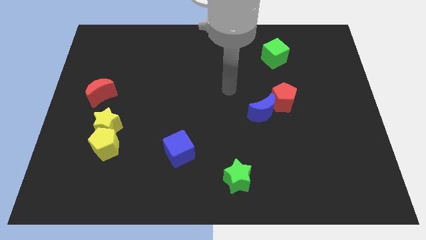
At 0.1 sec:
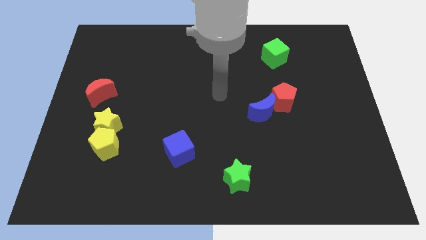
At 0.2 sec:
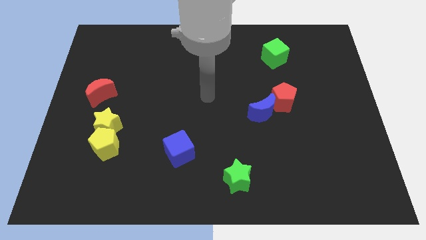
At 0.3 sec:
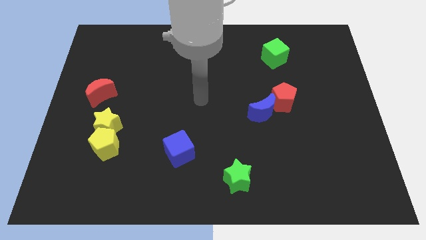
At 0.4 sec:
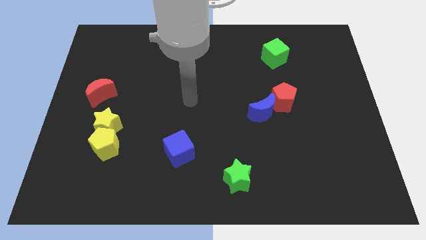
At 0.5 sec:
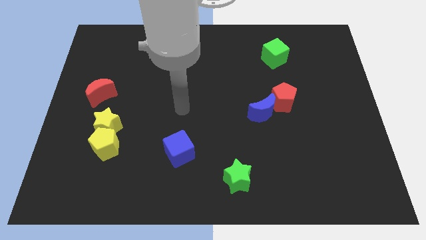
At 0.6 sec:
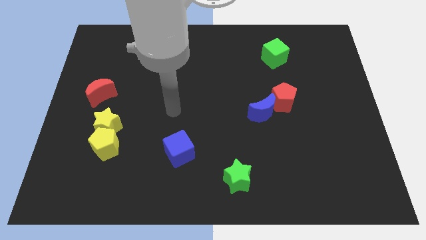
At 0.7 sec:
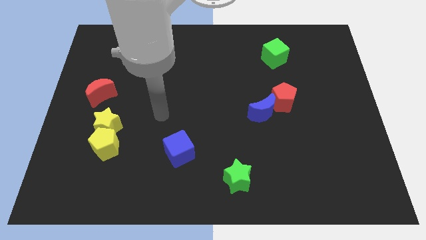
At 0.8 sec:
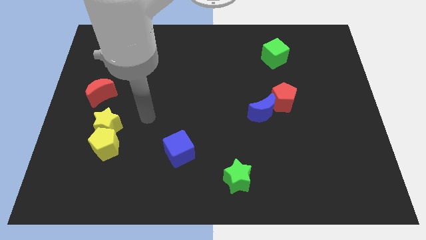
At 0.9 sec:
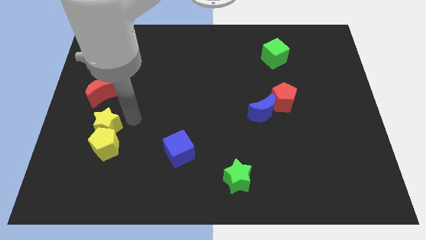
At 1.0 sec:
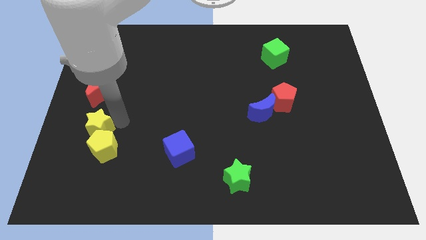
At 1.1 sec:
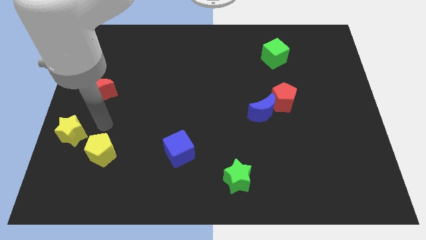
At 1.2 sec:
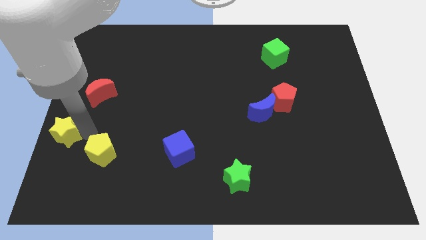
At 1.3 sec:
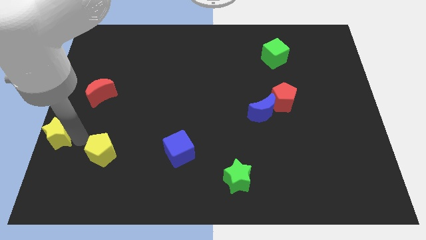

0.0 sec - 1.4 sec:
move the yellow pentagon away from the yellow star

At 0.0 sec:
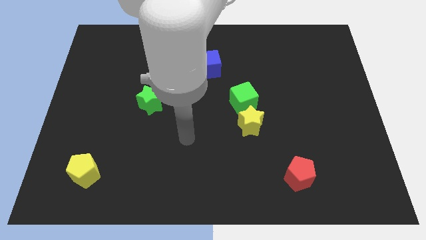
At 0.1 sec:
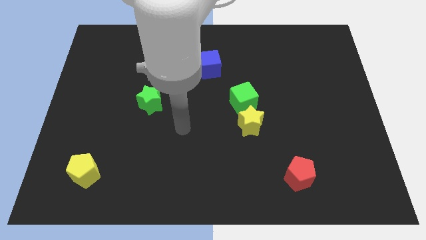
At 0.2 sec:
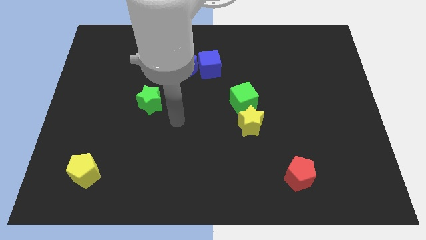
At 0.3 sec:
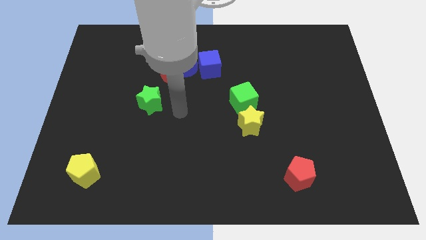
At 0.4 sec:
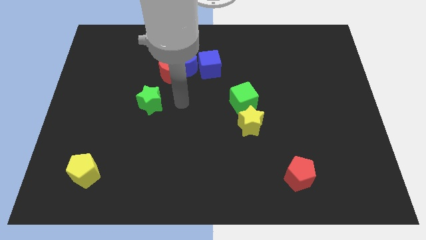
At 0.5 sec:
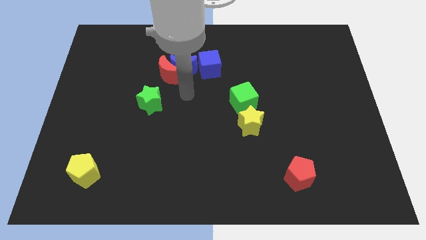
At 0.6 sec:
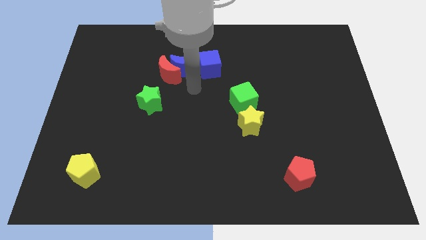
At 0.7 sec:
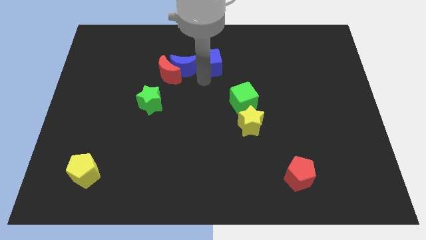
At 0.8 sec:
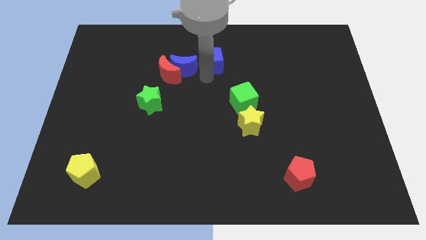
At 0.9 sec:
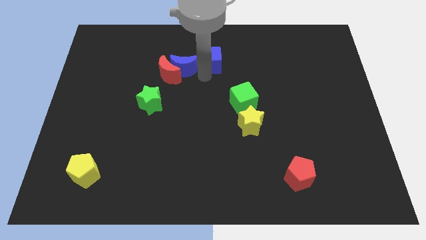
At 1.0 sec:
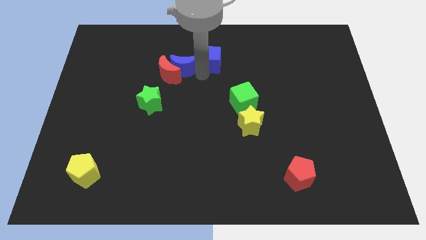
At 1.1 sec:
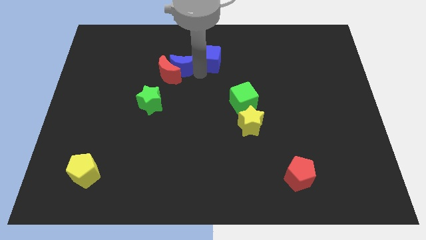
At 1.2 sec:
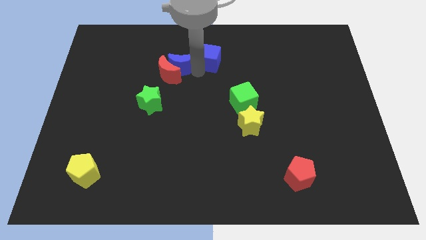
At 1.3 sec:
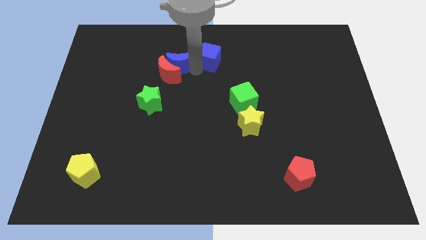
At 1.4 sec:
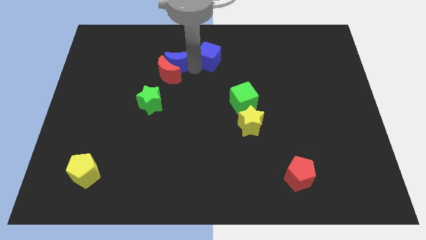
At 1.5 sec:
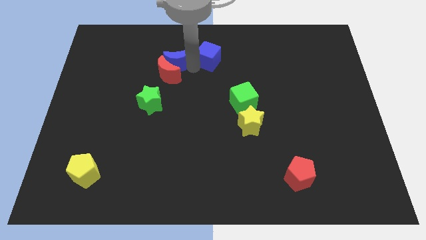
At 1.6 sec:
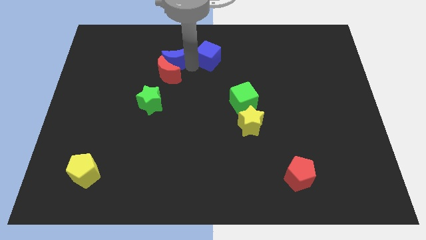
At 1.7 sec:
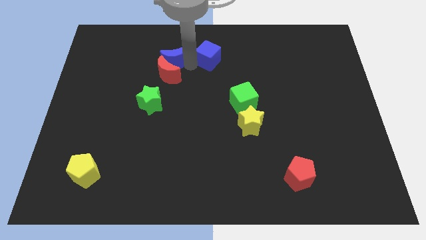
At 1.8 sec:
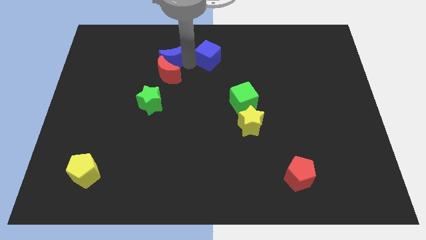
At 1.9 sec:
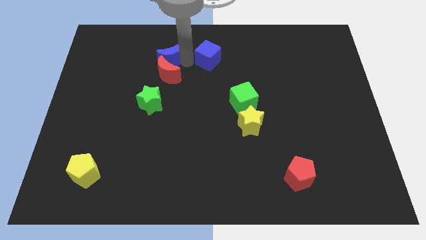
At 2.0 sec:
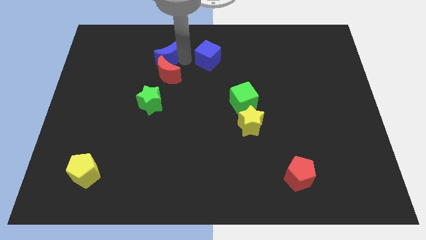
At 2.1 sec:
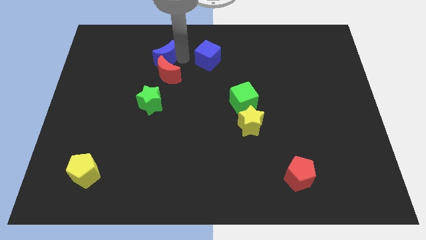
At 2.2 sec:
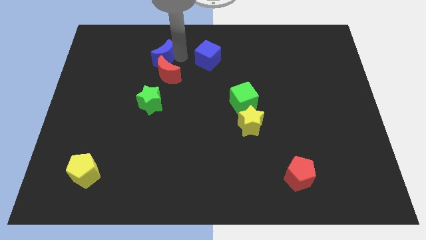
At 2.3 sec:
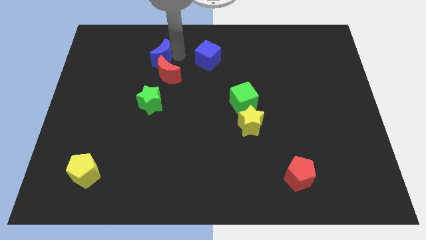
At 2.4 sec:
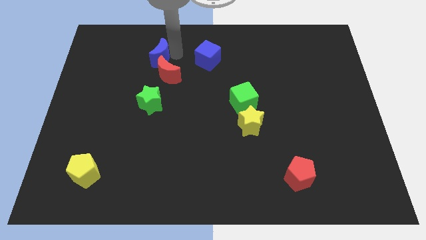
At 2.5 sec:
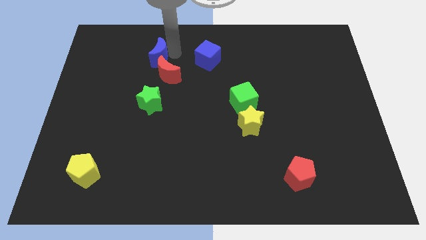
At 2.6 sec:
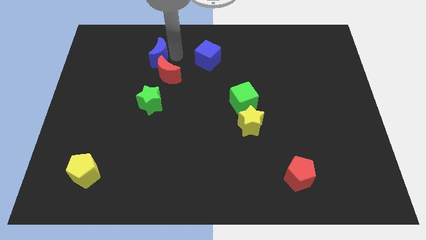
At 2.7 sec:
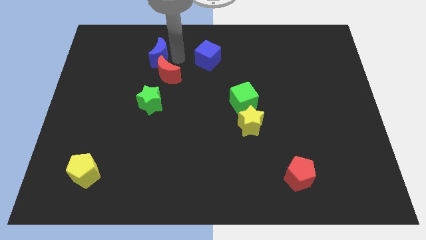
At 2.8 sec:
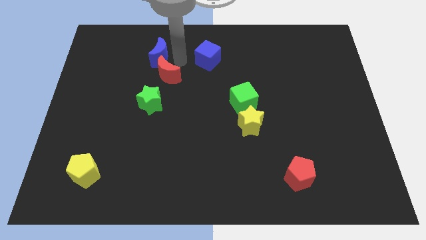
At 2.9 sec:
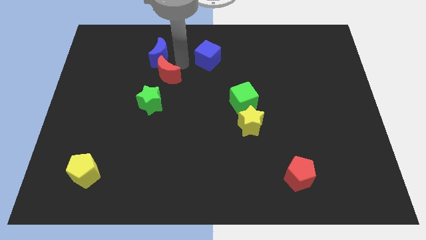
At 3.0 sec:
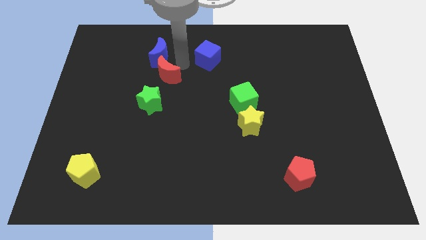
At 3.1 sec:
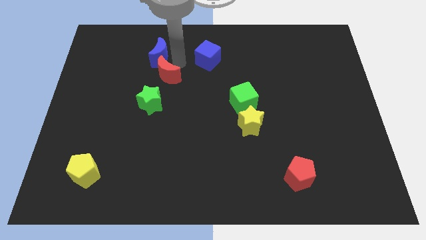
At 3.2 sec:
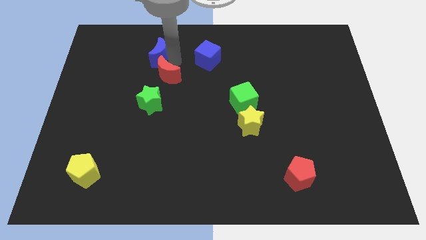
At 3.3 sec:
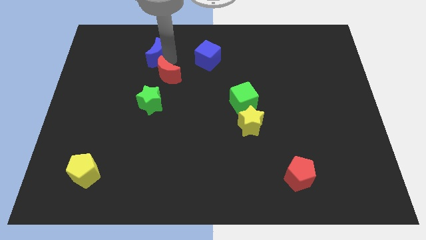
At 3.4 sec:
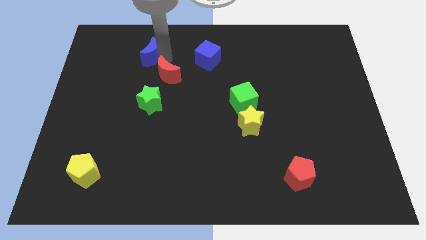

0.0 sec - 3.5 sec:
move the blue moon away from the red moon and blue cube

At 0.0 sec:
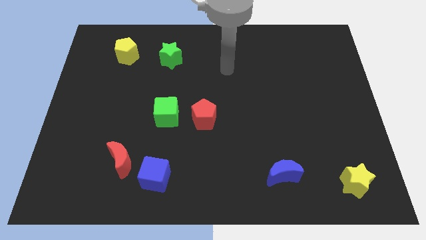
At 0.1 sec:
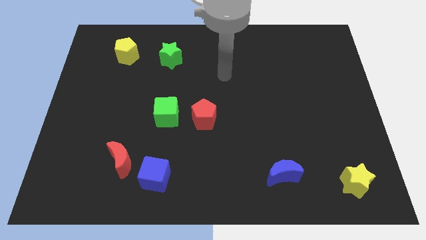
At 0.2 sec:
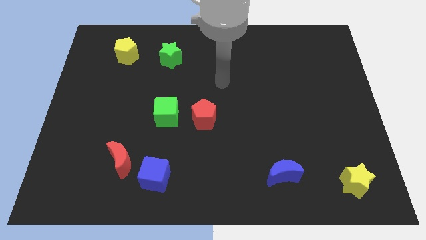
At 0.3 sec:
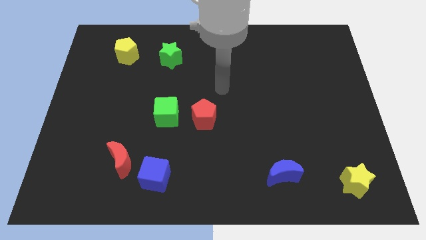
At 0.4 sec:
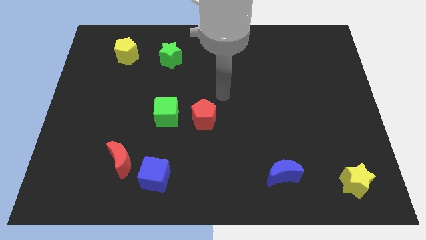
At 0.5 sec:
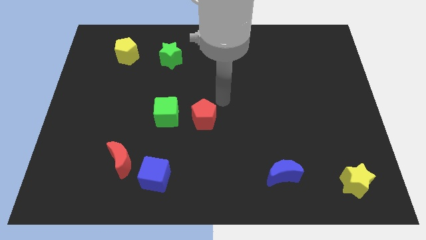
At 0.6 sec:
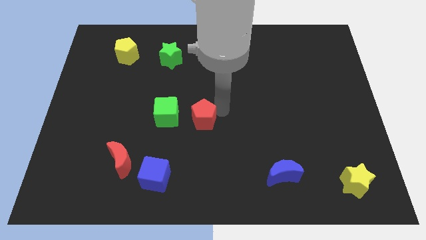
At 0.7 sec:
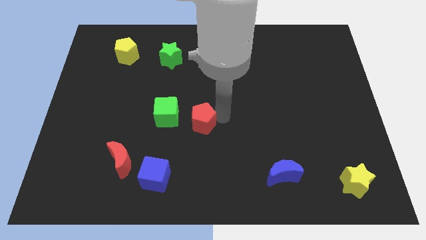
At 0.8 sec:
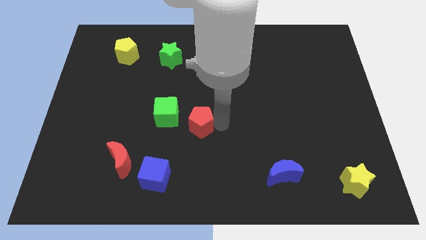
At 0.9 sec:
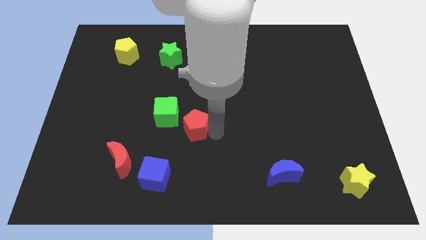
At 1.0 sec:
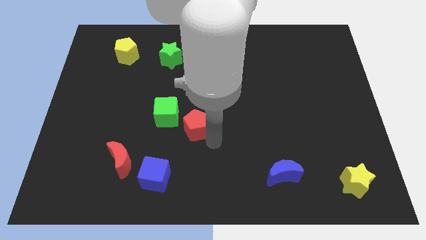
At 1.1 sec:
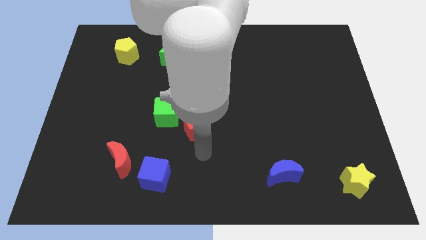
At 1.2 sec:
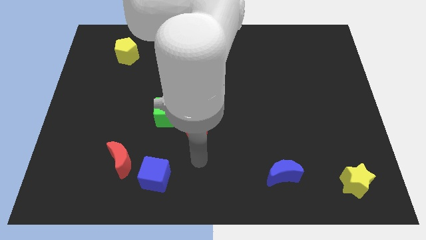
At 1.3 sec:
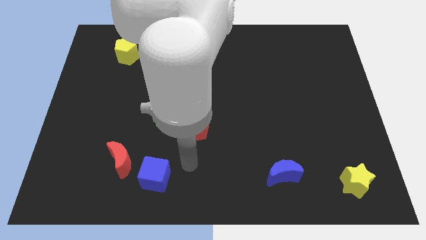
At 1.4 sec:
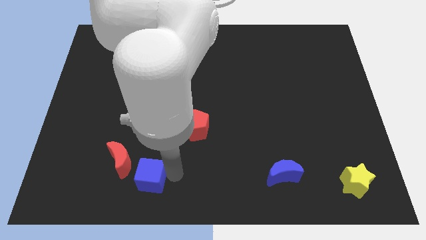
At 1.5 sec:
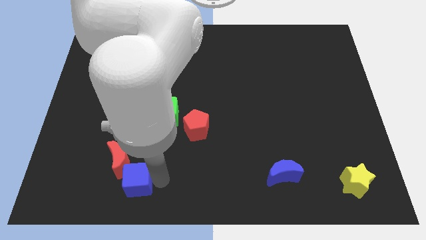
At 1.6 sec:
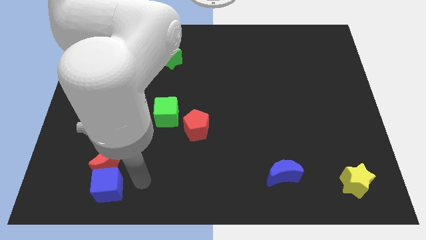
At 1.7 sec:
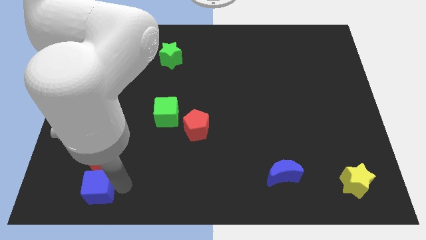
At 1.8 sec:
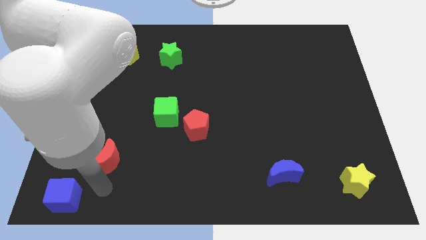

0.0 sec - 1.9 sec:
separate the red moon from the blue cube

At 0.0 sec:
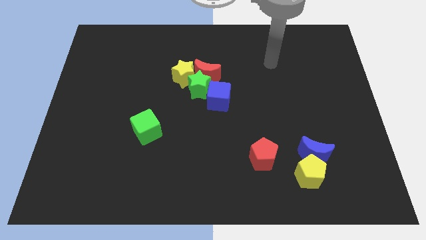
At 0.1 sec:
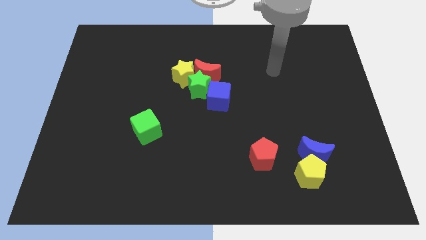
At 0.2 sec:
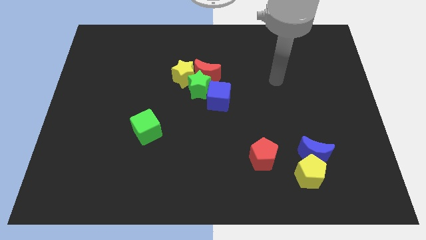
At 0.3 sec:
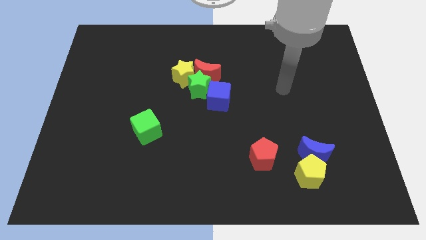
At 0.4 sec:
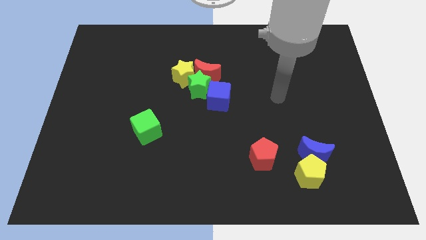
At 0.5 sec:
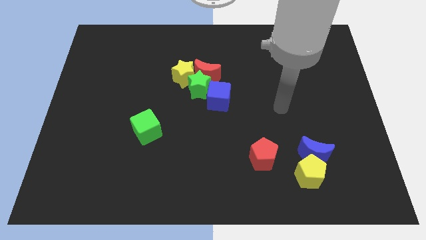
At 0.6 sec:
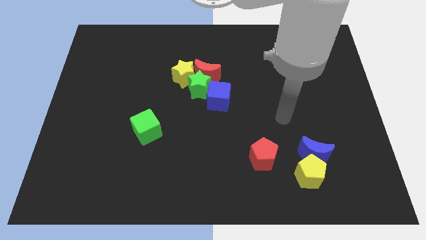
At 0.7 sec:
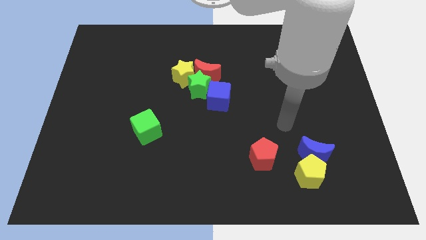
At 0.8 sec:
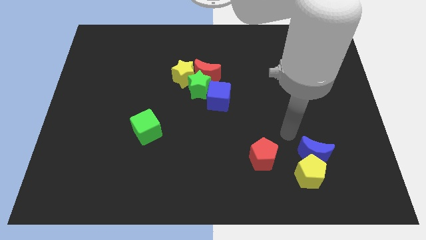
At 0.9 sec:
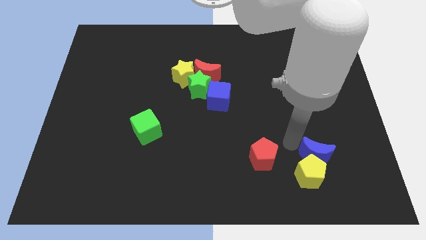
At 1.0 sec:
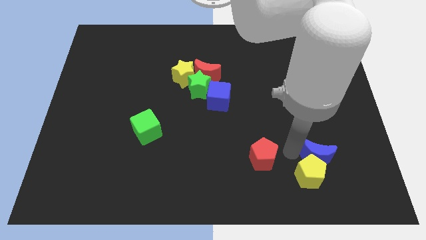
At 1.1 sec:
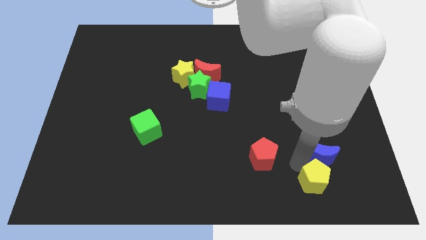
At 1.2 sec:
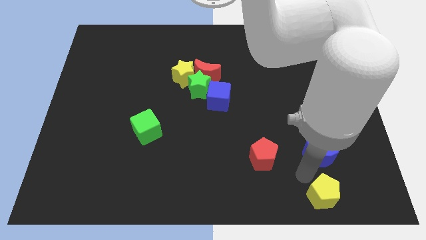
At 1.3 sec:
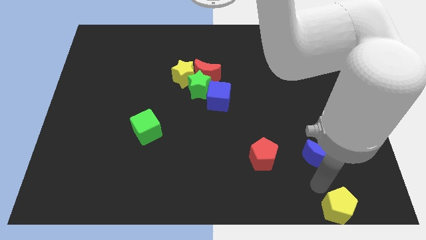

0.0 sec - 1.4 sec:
move the blue moon away from the yellow pentagon

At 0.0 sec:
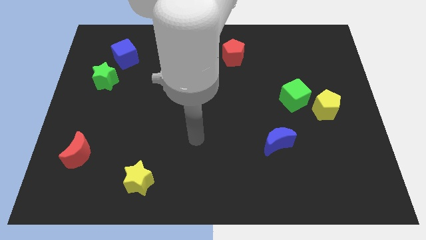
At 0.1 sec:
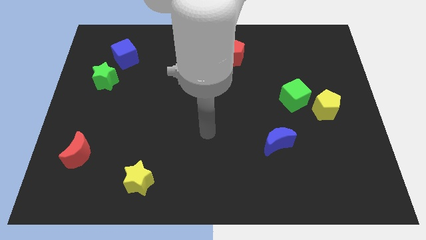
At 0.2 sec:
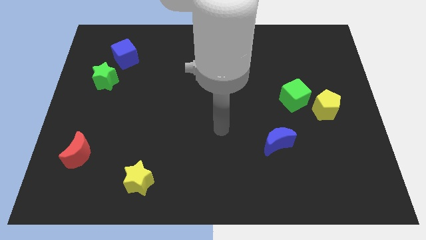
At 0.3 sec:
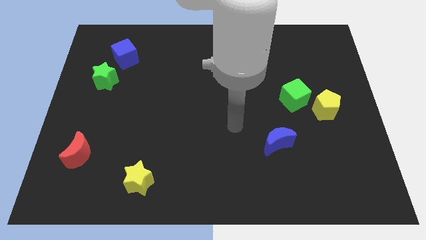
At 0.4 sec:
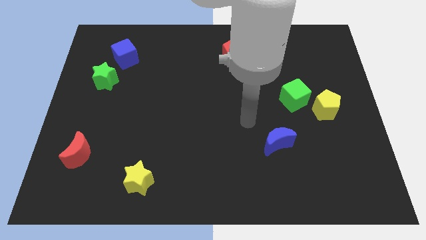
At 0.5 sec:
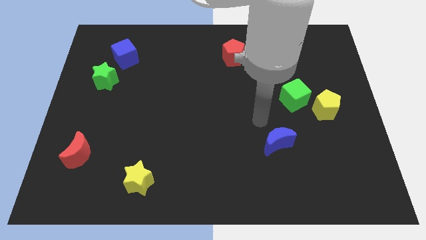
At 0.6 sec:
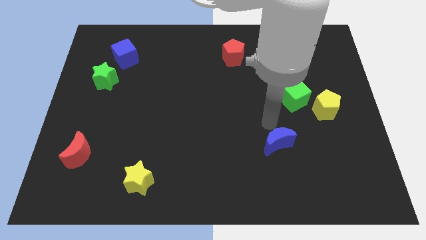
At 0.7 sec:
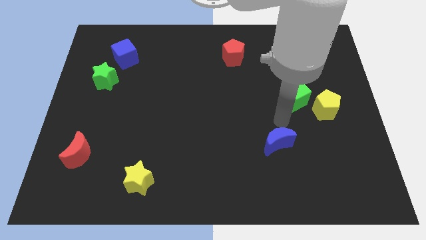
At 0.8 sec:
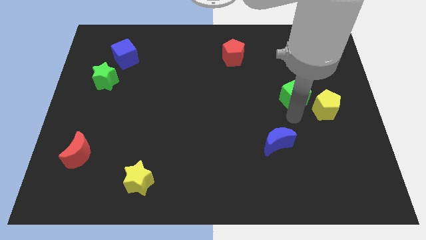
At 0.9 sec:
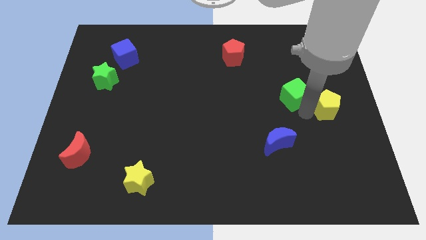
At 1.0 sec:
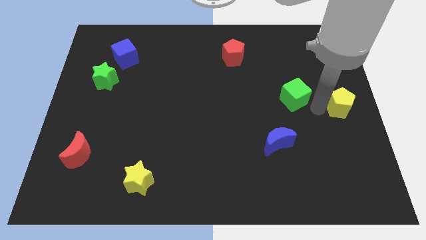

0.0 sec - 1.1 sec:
pull the green cube apart from the yellow pentagon
